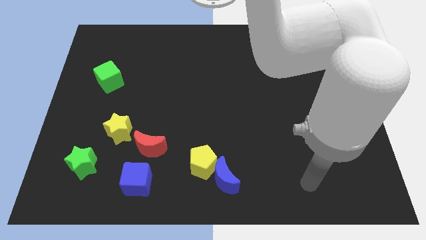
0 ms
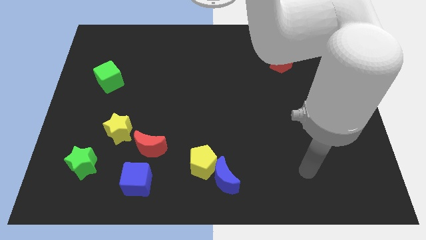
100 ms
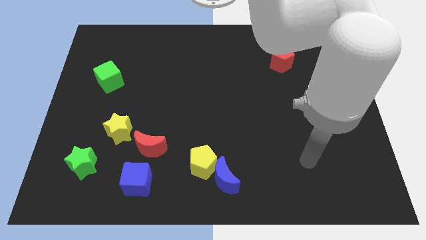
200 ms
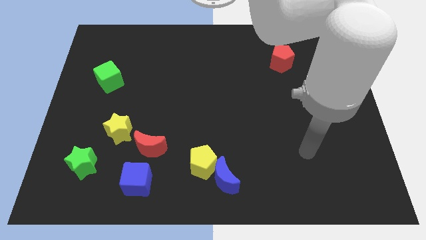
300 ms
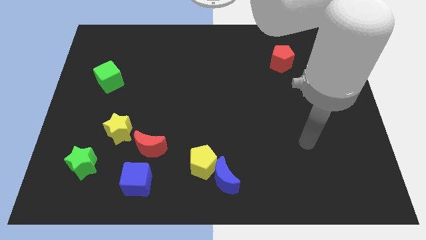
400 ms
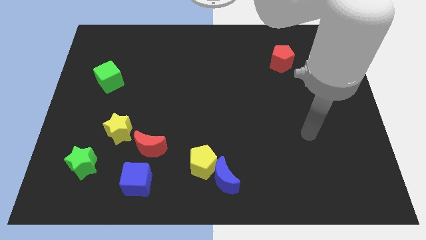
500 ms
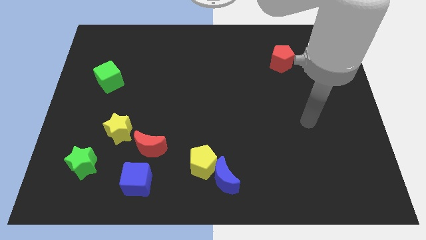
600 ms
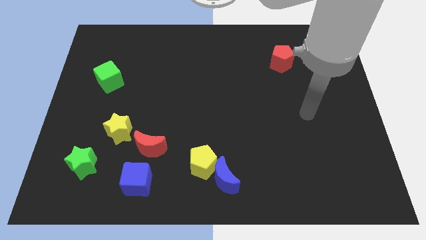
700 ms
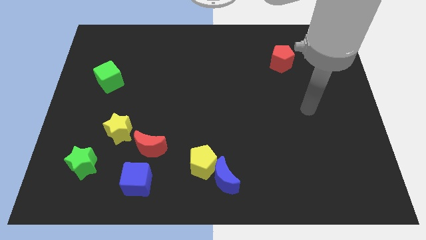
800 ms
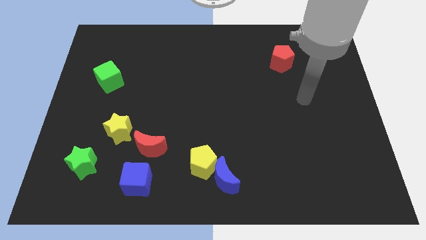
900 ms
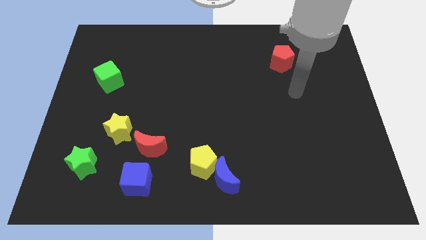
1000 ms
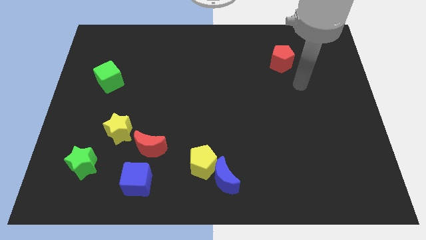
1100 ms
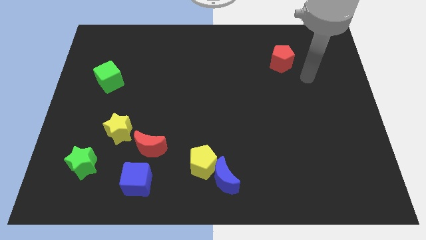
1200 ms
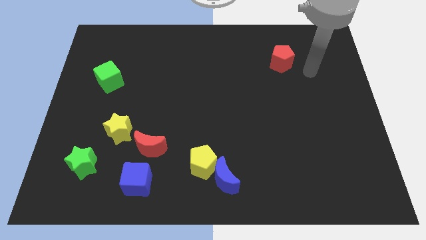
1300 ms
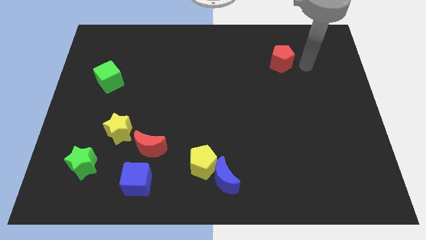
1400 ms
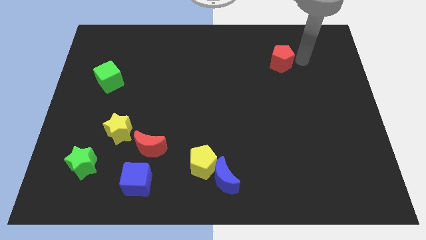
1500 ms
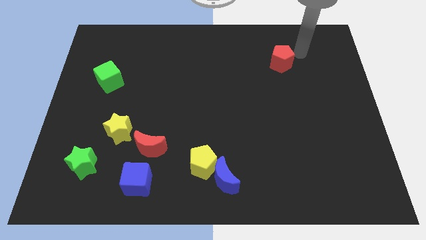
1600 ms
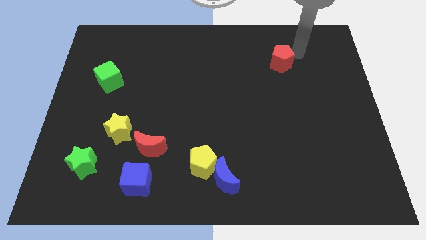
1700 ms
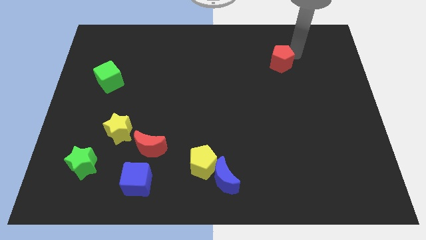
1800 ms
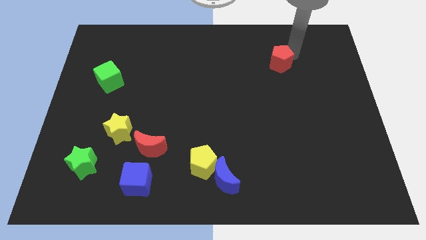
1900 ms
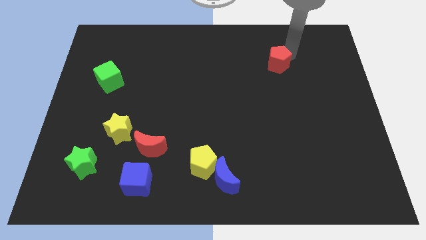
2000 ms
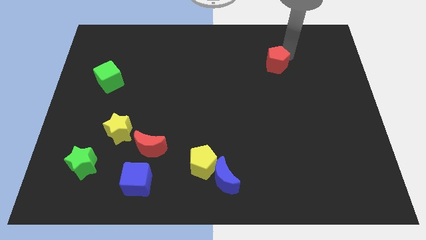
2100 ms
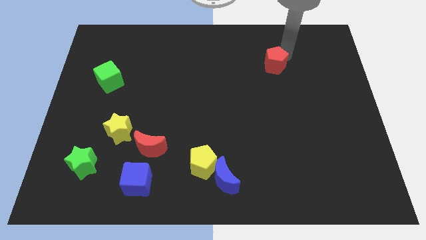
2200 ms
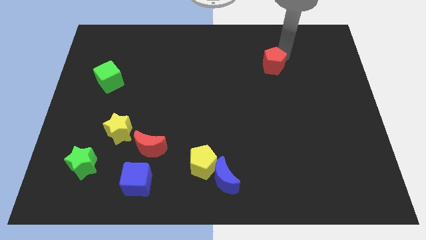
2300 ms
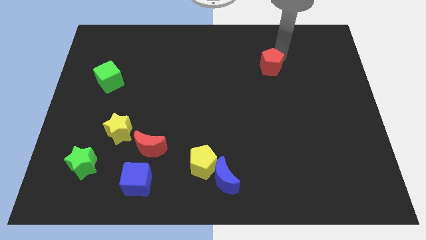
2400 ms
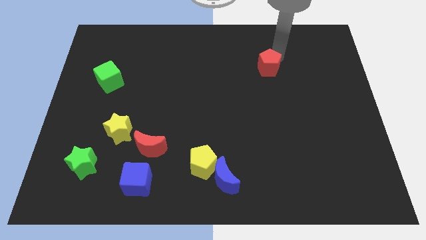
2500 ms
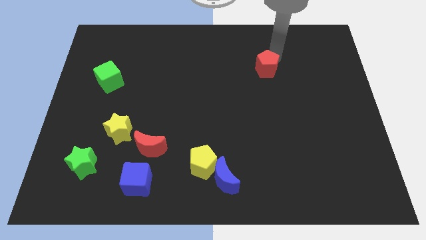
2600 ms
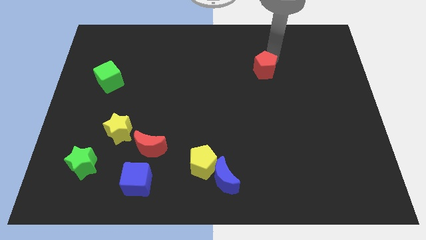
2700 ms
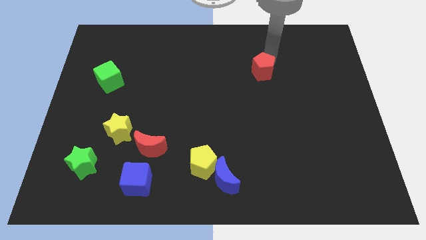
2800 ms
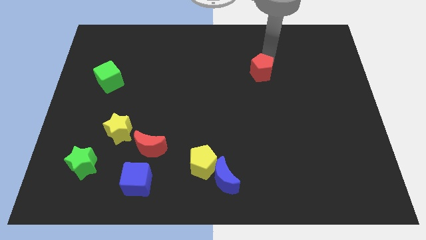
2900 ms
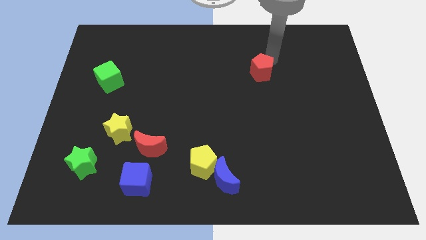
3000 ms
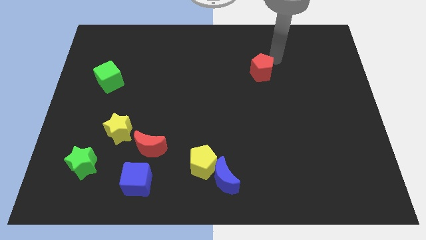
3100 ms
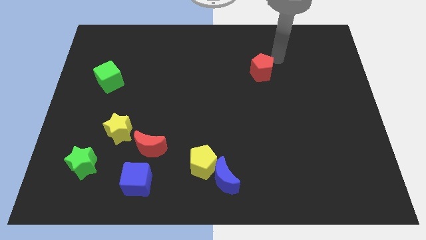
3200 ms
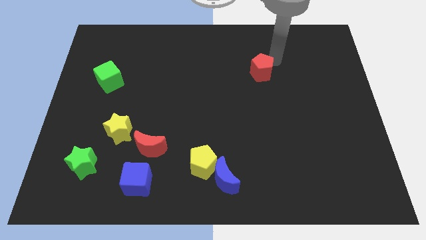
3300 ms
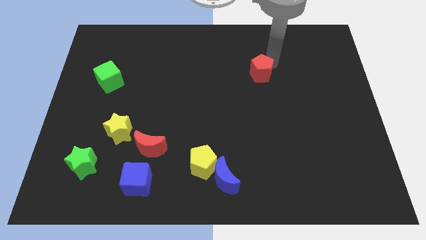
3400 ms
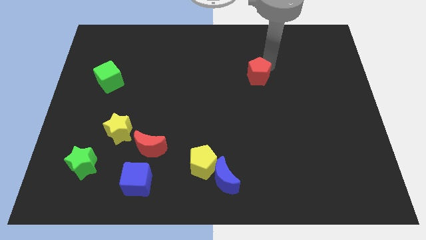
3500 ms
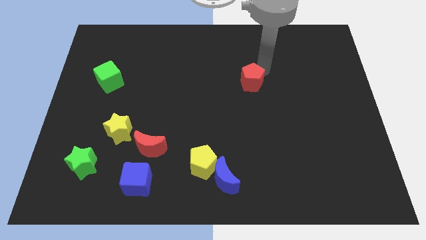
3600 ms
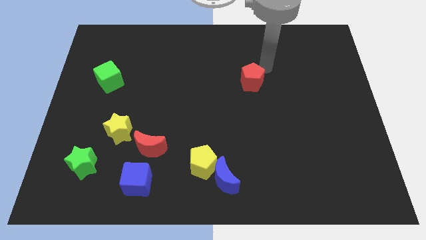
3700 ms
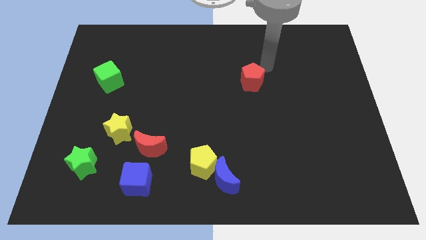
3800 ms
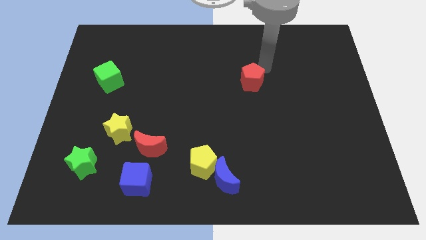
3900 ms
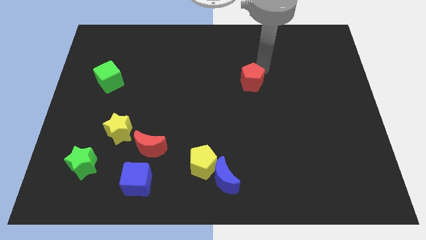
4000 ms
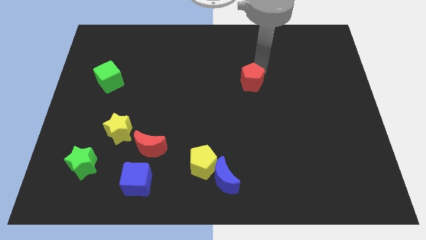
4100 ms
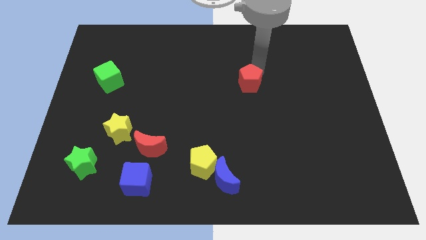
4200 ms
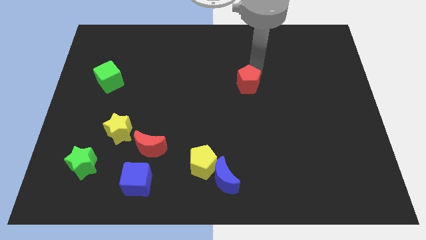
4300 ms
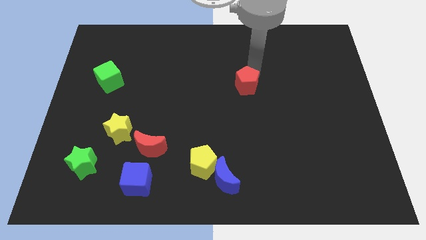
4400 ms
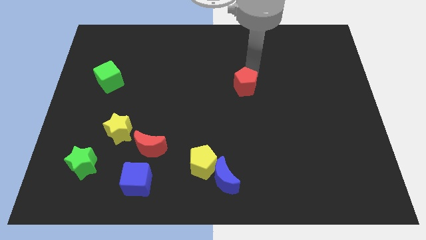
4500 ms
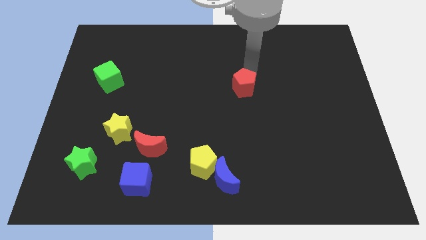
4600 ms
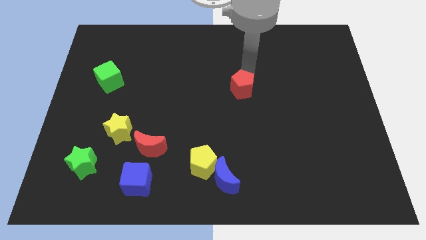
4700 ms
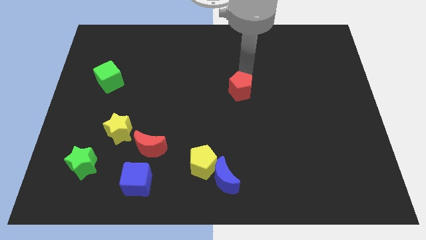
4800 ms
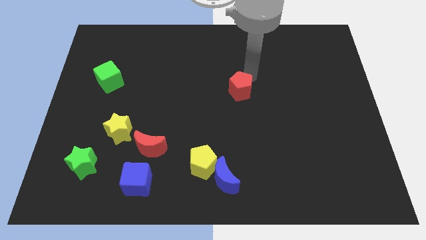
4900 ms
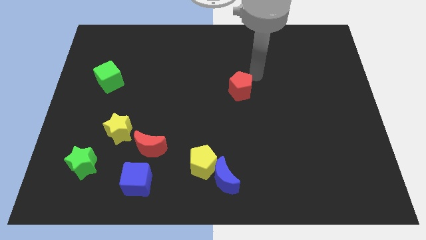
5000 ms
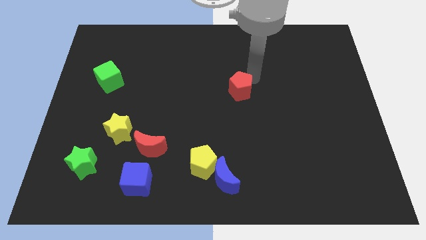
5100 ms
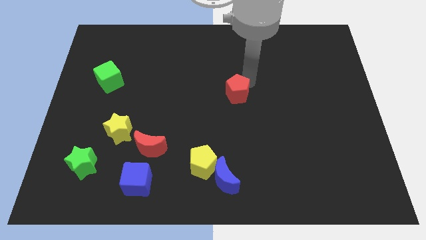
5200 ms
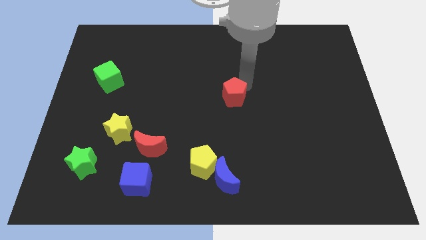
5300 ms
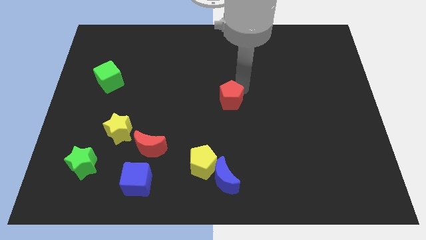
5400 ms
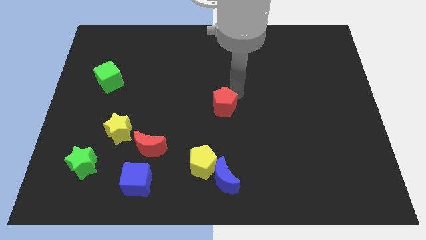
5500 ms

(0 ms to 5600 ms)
slide the red pentagon down and to the left diagonally

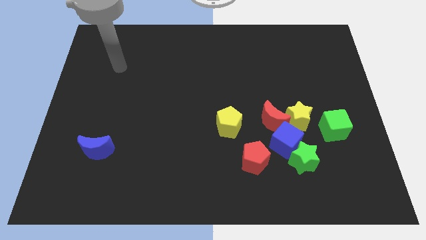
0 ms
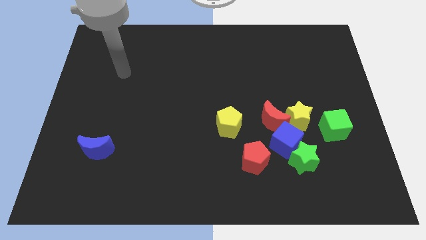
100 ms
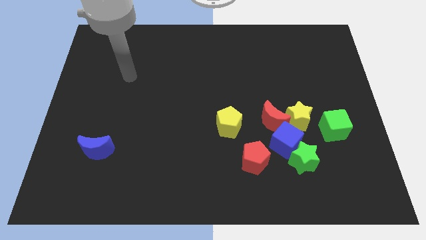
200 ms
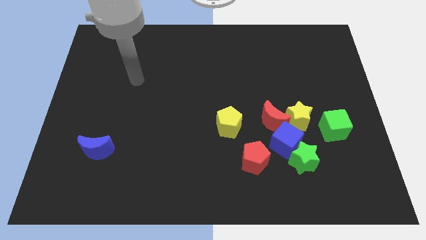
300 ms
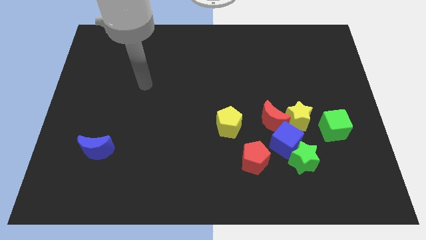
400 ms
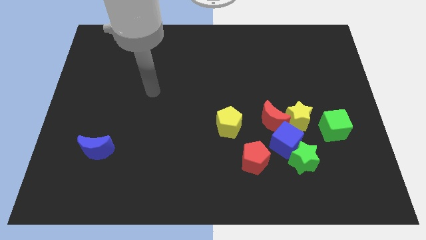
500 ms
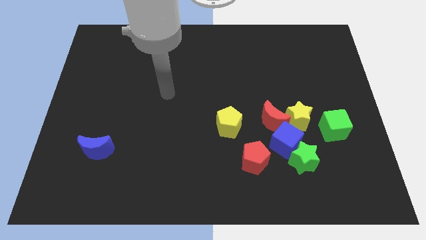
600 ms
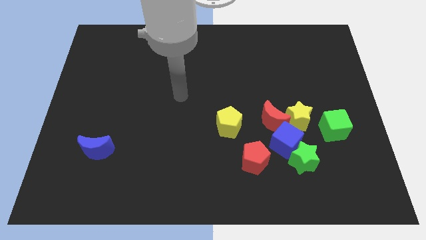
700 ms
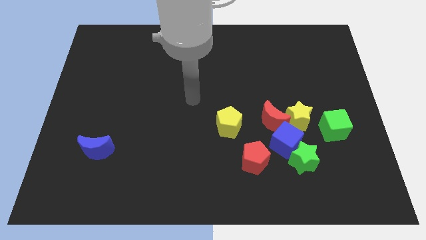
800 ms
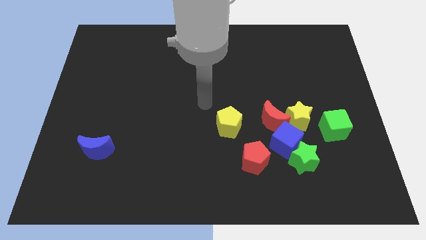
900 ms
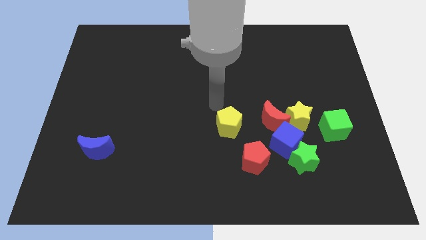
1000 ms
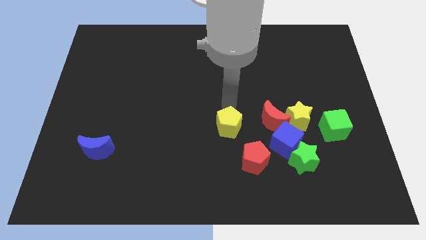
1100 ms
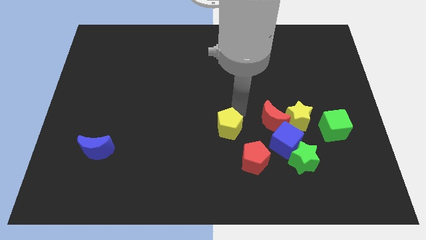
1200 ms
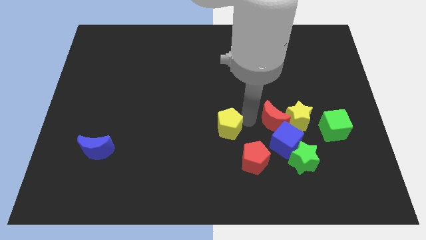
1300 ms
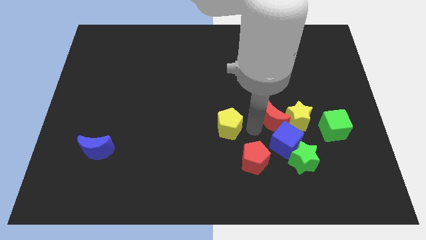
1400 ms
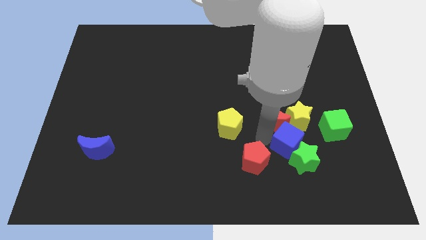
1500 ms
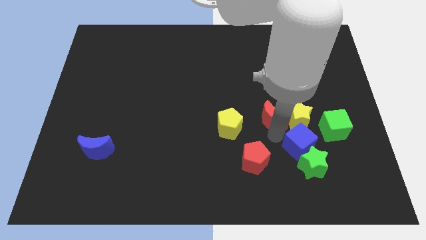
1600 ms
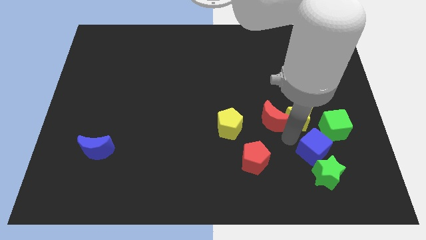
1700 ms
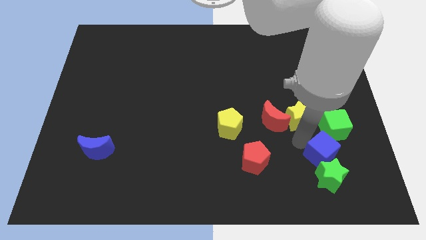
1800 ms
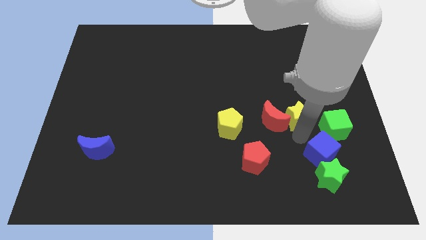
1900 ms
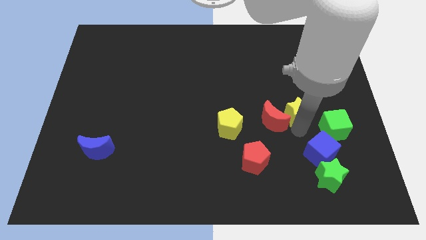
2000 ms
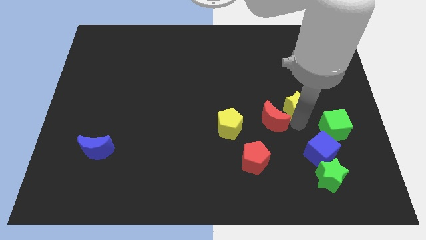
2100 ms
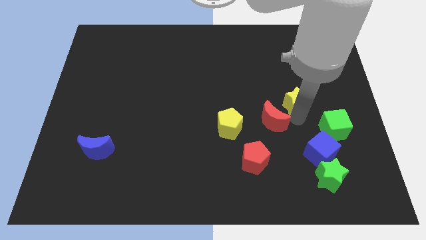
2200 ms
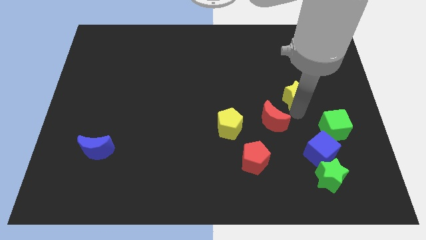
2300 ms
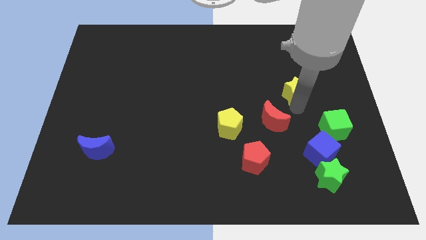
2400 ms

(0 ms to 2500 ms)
push the yellow star up a little
